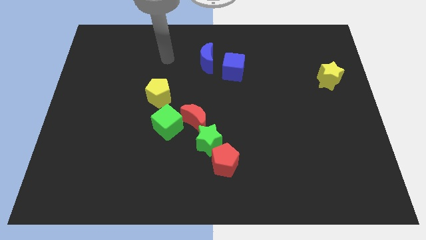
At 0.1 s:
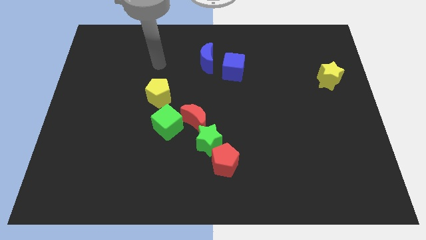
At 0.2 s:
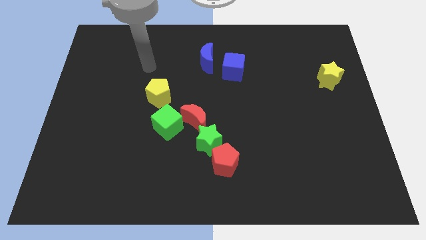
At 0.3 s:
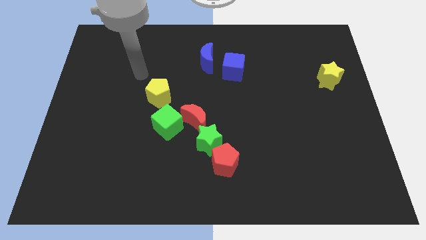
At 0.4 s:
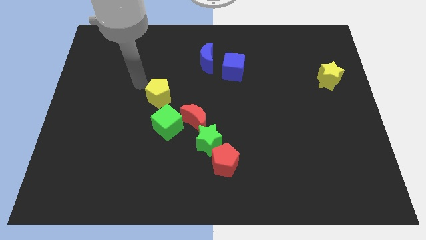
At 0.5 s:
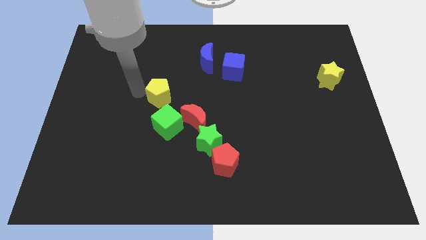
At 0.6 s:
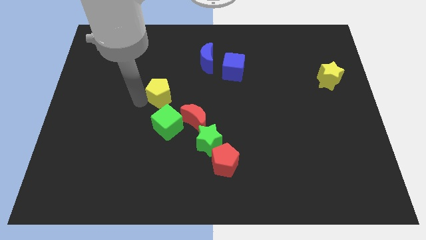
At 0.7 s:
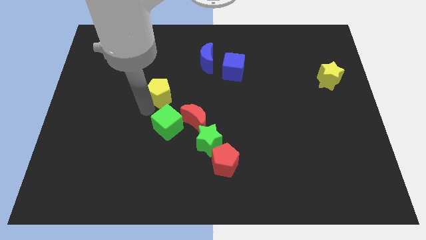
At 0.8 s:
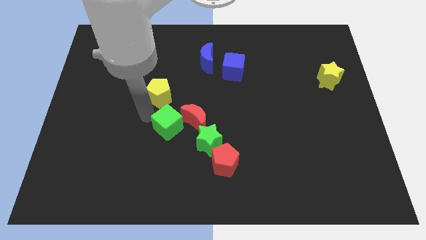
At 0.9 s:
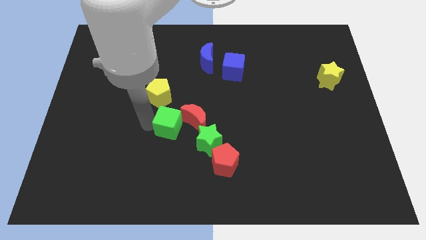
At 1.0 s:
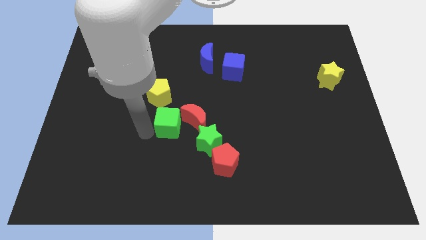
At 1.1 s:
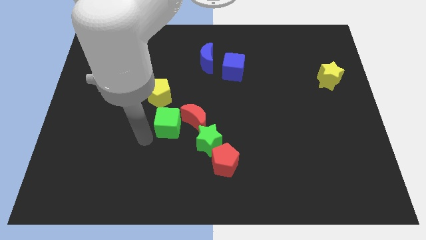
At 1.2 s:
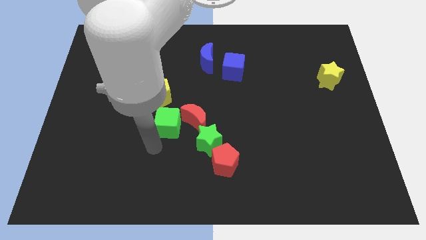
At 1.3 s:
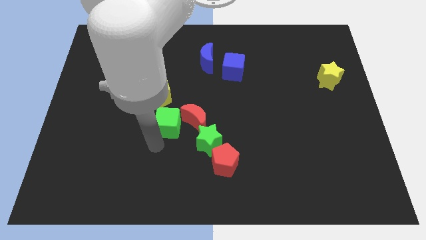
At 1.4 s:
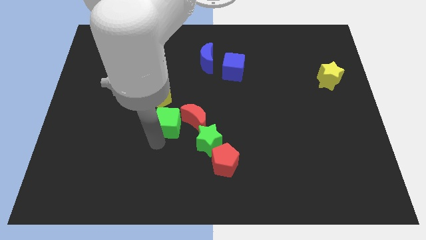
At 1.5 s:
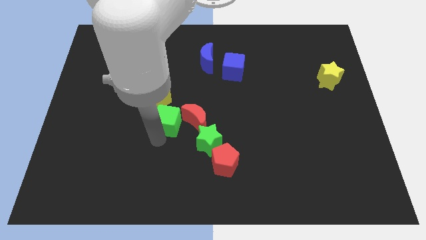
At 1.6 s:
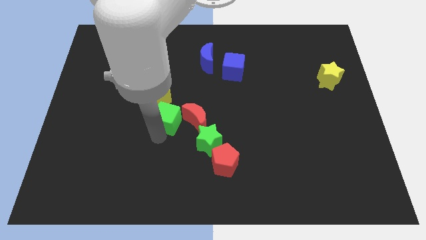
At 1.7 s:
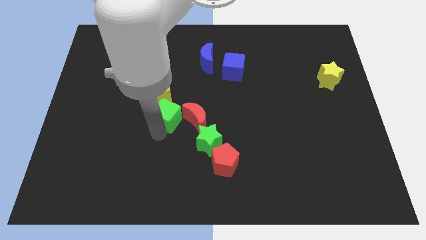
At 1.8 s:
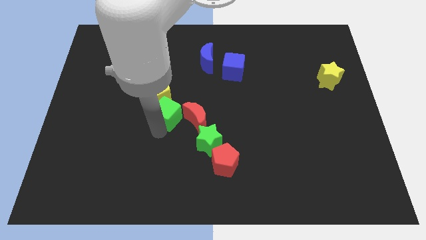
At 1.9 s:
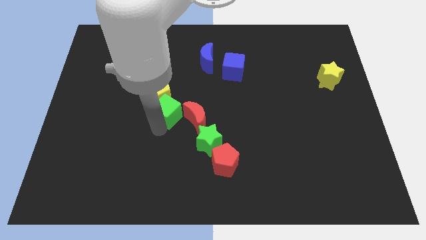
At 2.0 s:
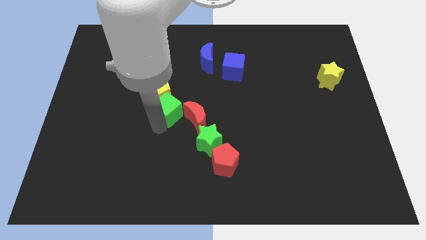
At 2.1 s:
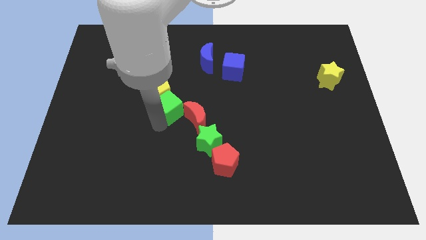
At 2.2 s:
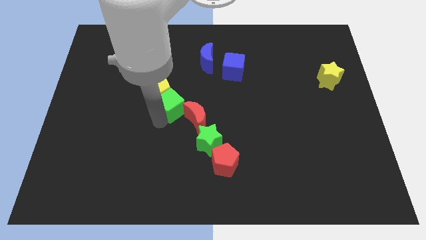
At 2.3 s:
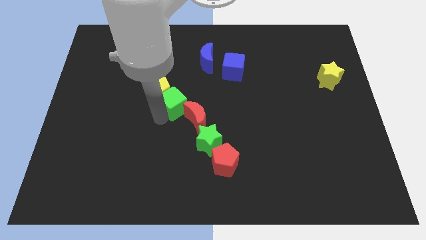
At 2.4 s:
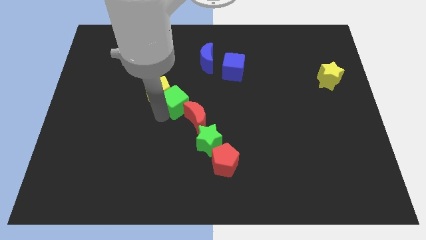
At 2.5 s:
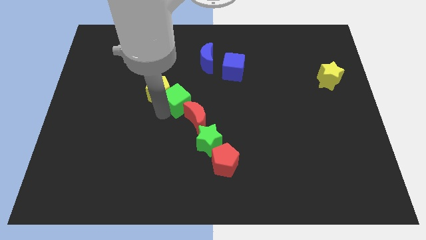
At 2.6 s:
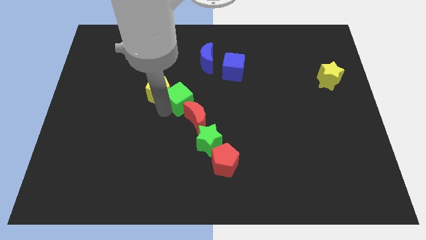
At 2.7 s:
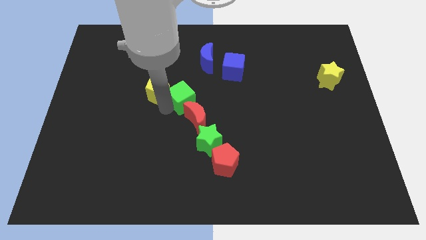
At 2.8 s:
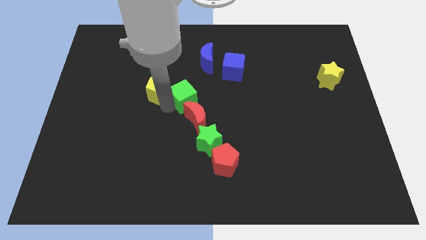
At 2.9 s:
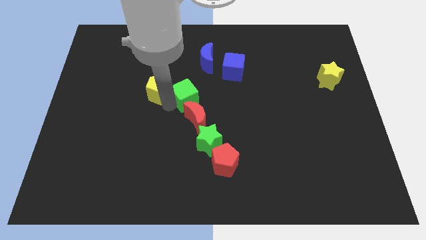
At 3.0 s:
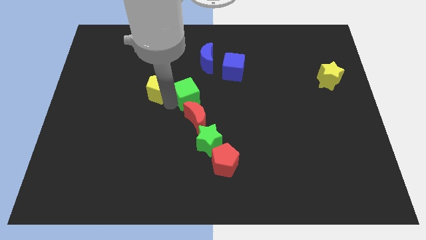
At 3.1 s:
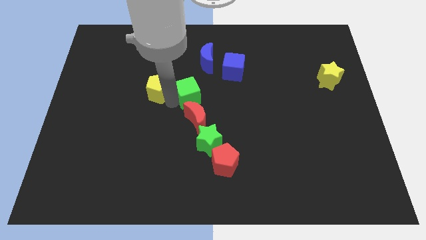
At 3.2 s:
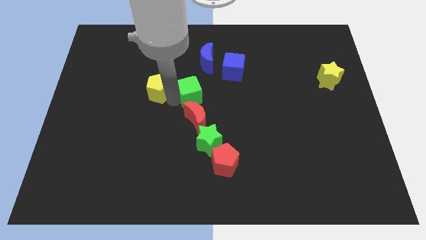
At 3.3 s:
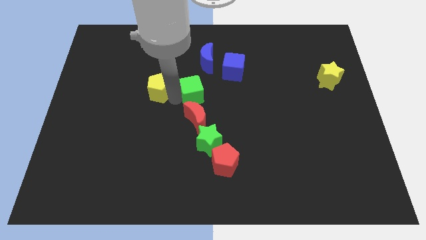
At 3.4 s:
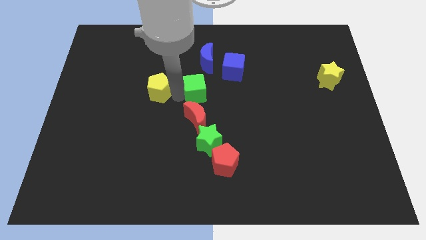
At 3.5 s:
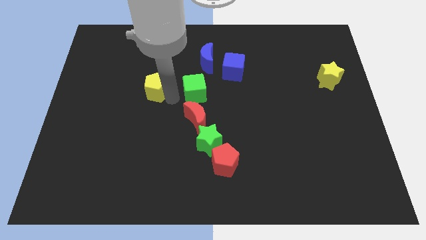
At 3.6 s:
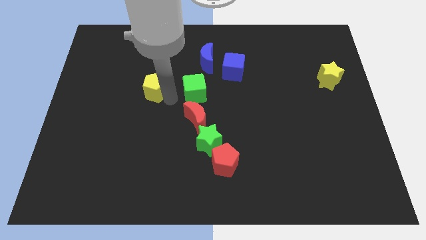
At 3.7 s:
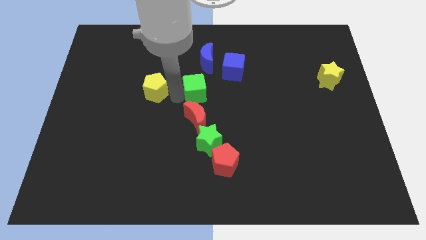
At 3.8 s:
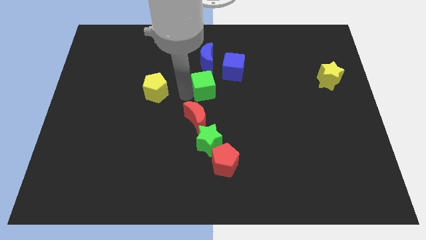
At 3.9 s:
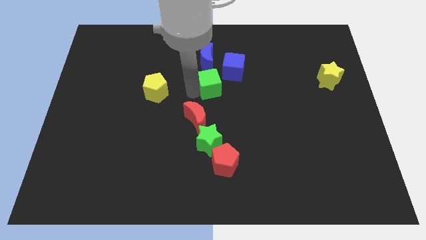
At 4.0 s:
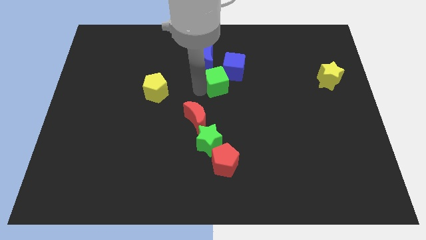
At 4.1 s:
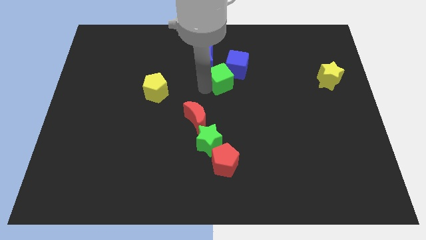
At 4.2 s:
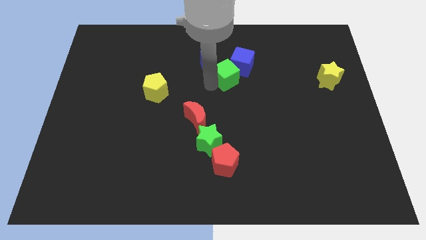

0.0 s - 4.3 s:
move the green cube up and to the right diagonally

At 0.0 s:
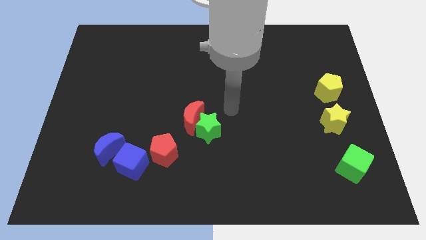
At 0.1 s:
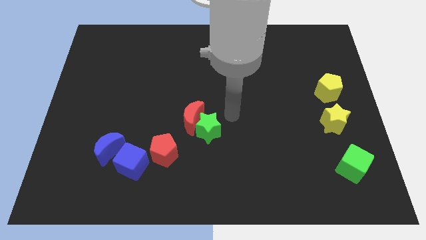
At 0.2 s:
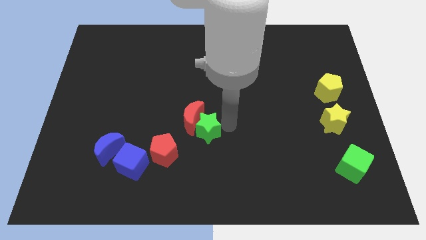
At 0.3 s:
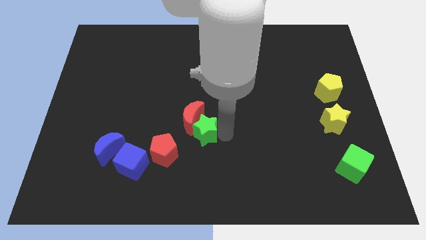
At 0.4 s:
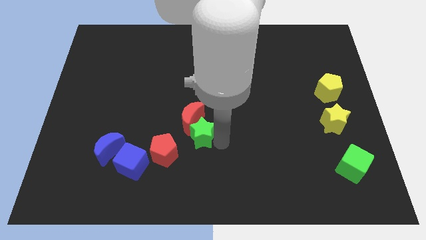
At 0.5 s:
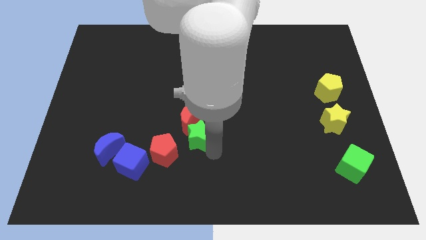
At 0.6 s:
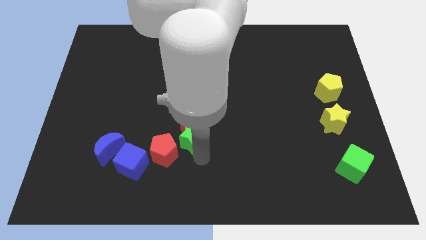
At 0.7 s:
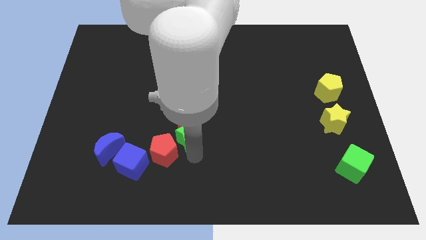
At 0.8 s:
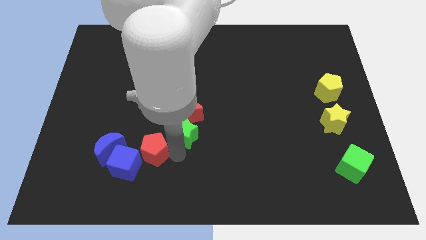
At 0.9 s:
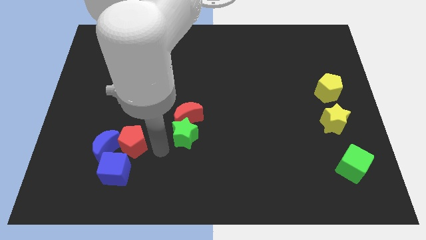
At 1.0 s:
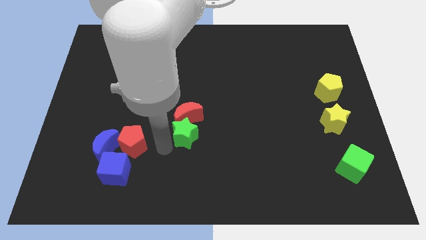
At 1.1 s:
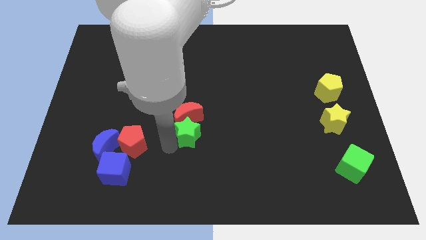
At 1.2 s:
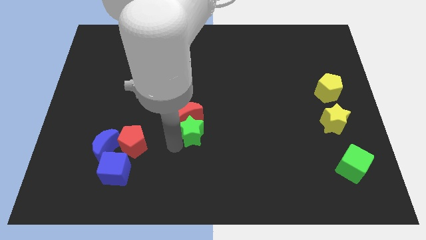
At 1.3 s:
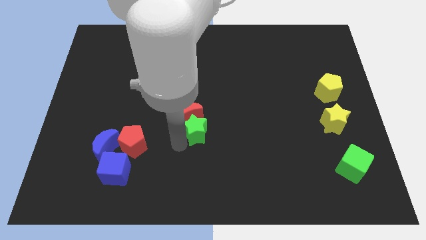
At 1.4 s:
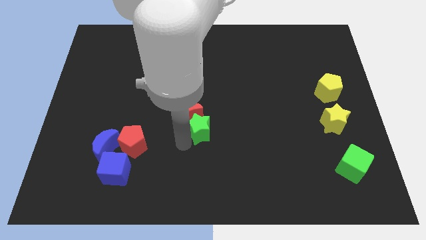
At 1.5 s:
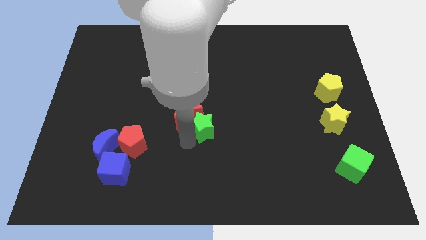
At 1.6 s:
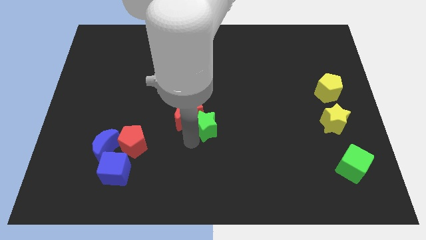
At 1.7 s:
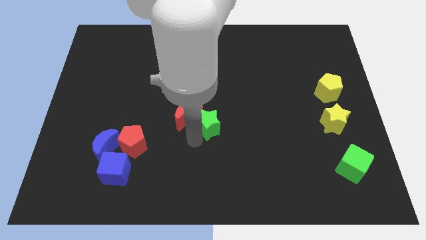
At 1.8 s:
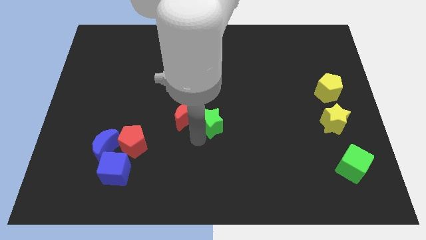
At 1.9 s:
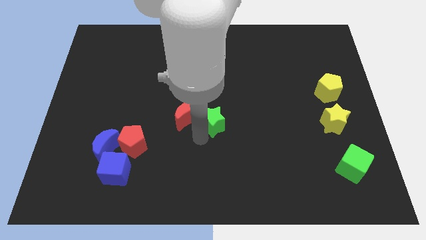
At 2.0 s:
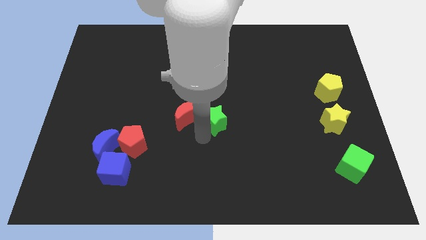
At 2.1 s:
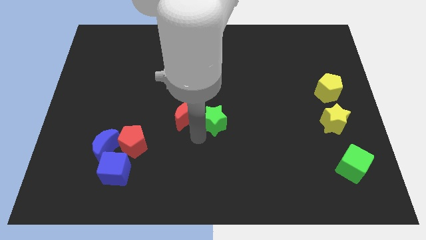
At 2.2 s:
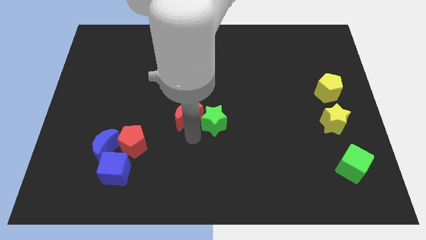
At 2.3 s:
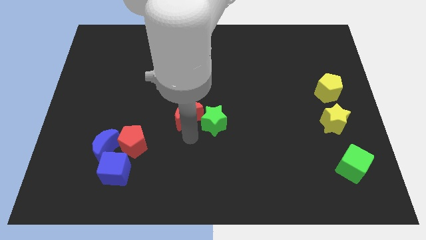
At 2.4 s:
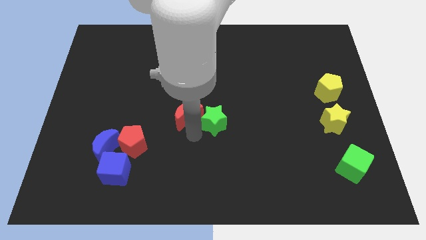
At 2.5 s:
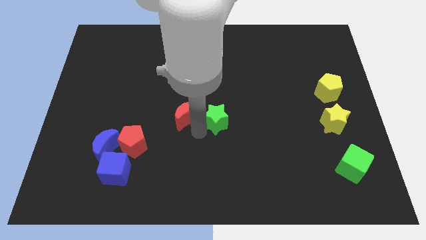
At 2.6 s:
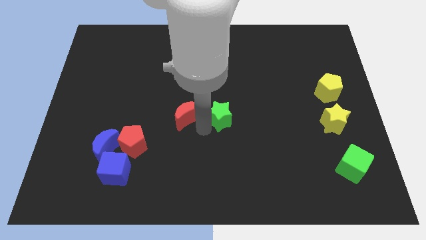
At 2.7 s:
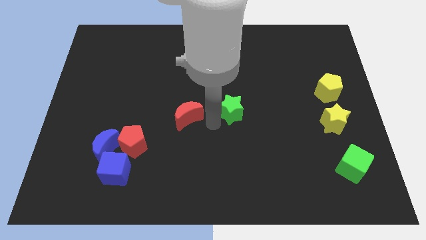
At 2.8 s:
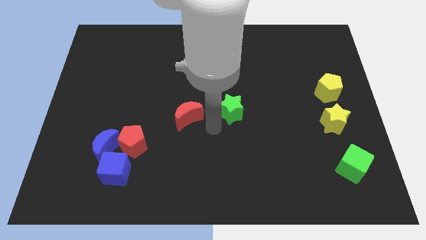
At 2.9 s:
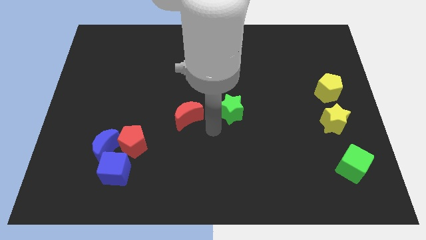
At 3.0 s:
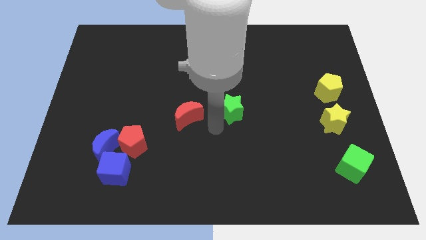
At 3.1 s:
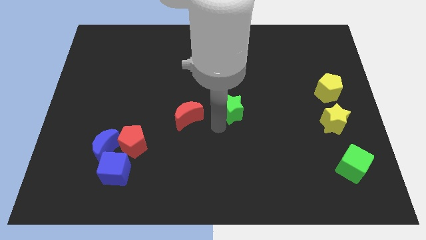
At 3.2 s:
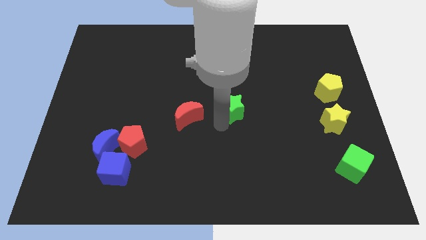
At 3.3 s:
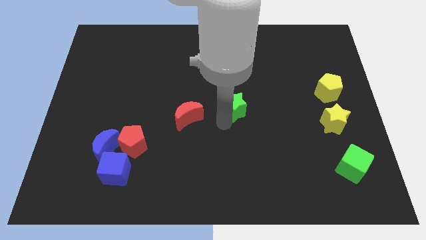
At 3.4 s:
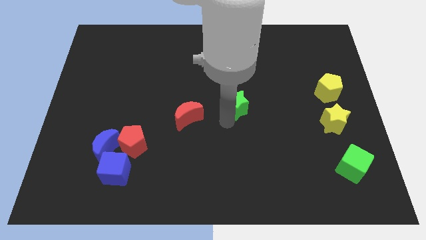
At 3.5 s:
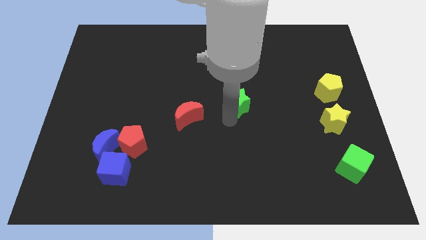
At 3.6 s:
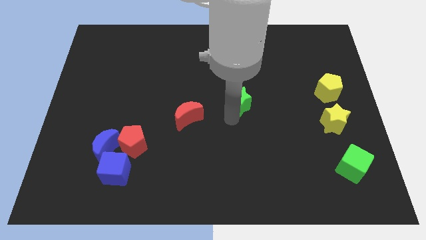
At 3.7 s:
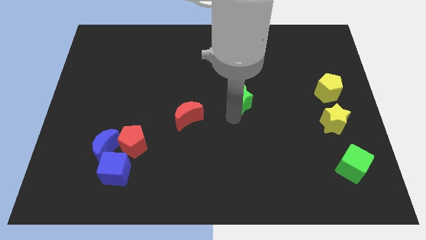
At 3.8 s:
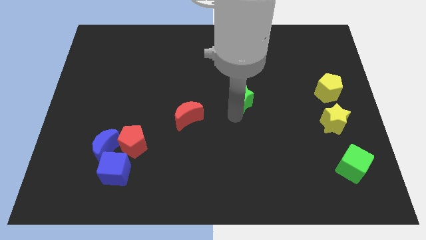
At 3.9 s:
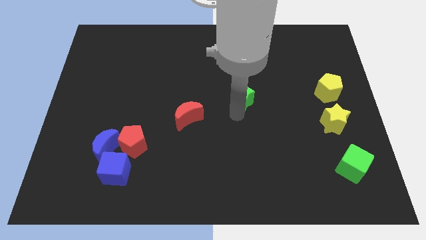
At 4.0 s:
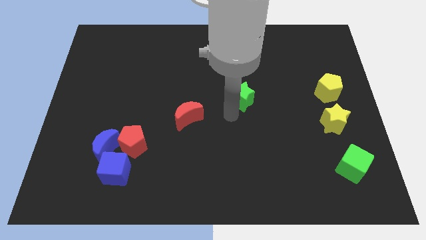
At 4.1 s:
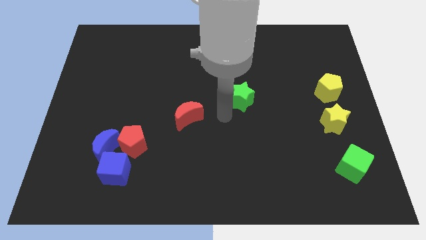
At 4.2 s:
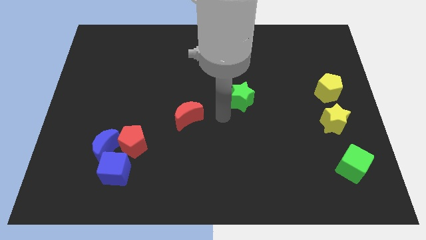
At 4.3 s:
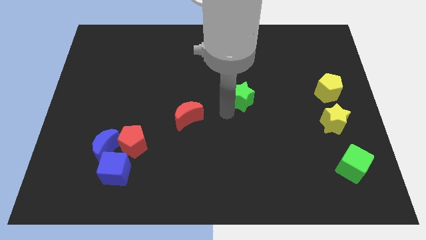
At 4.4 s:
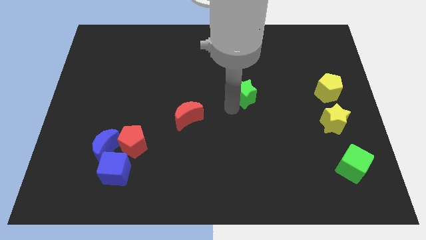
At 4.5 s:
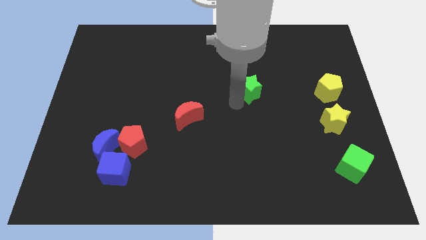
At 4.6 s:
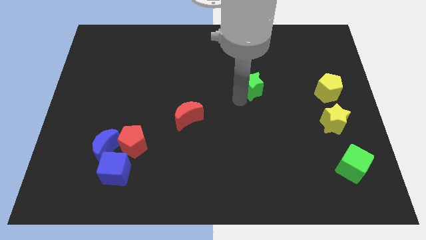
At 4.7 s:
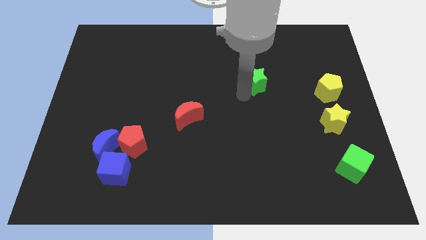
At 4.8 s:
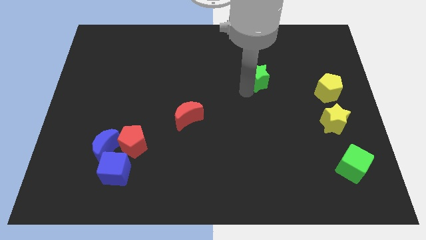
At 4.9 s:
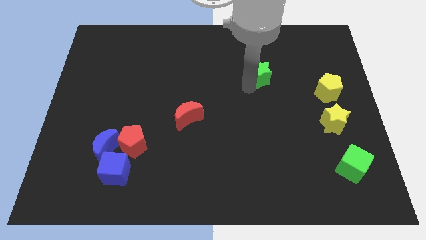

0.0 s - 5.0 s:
push the green star upwards and right
